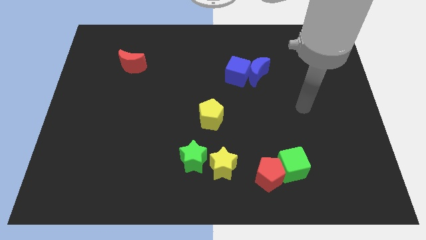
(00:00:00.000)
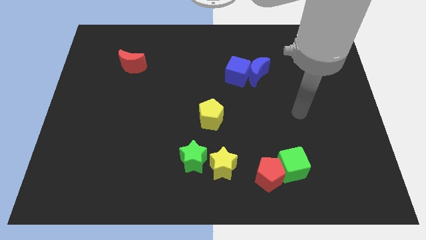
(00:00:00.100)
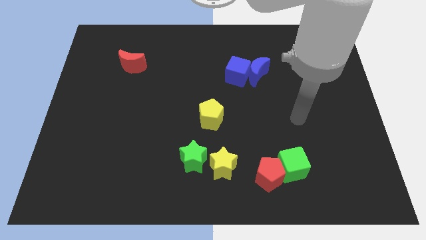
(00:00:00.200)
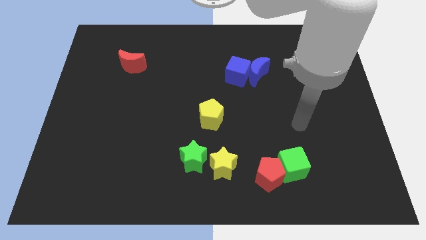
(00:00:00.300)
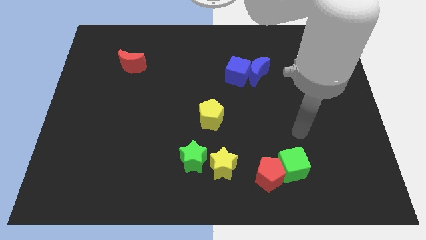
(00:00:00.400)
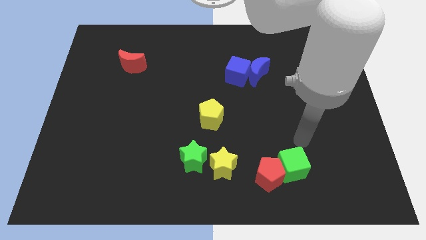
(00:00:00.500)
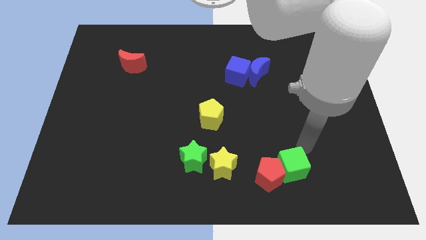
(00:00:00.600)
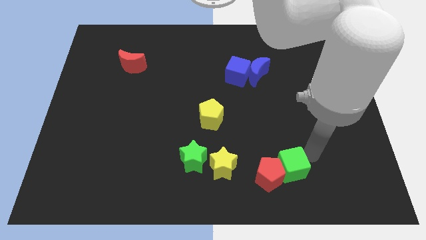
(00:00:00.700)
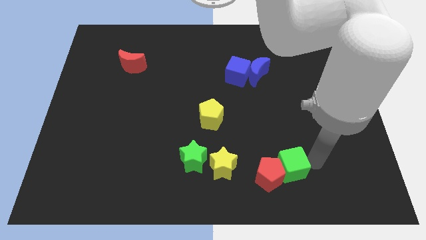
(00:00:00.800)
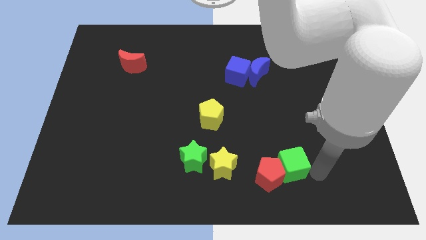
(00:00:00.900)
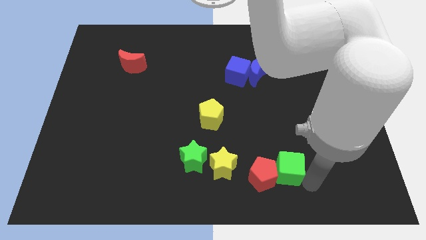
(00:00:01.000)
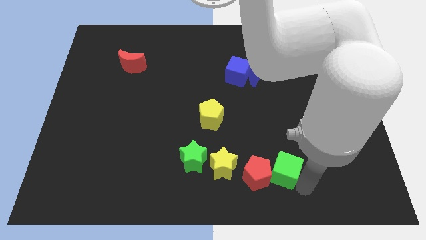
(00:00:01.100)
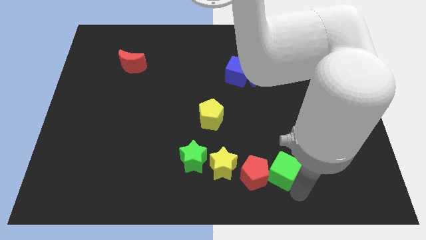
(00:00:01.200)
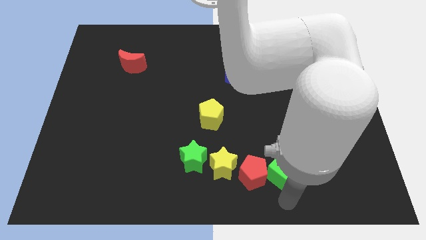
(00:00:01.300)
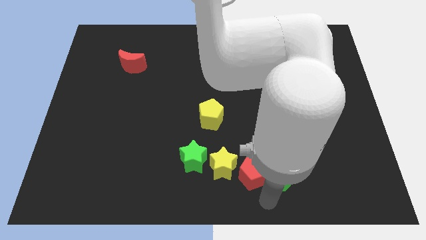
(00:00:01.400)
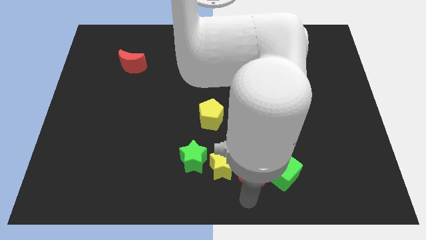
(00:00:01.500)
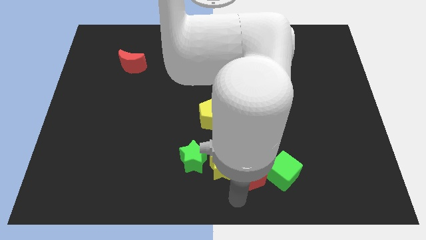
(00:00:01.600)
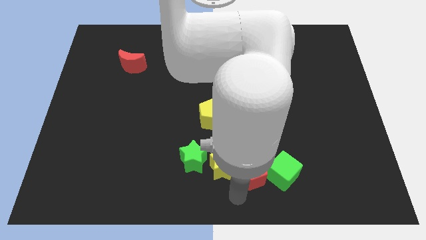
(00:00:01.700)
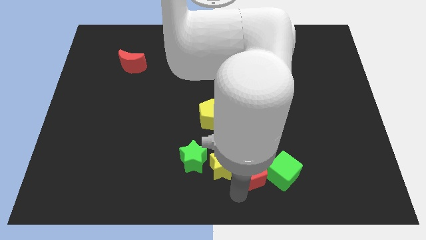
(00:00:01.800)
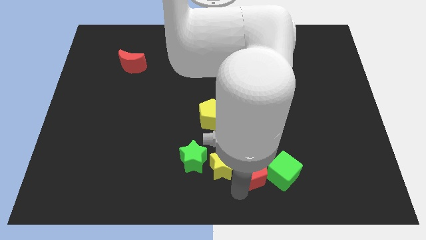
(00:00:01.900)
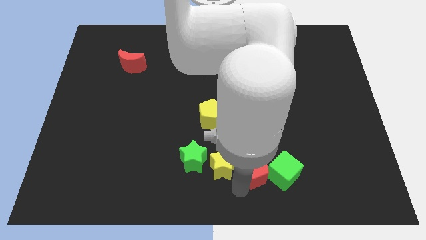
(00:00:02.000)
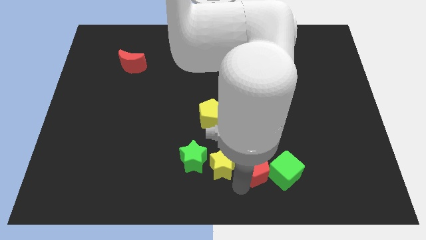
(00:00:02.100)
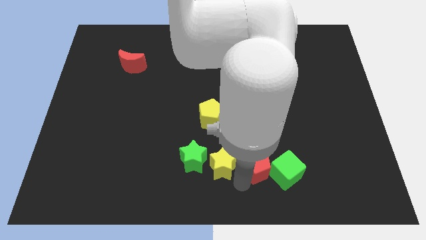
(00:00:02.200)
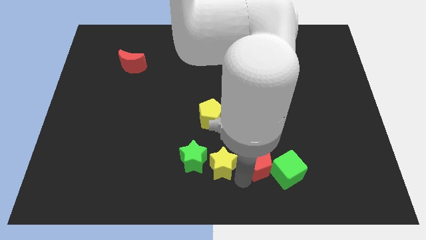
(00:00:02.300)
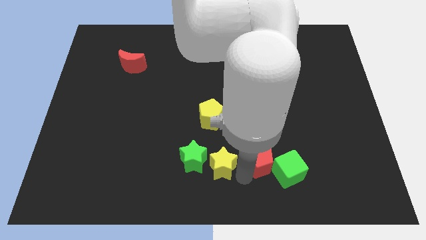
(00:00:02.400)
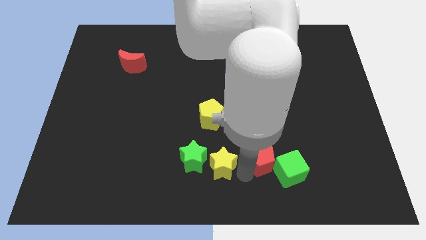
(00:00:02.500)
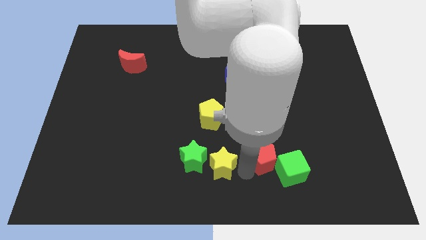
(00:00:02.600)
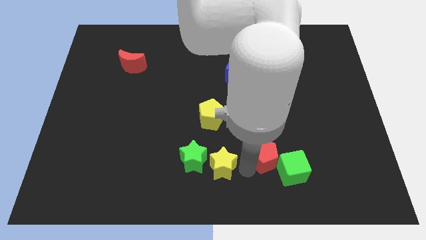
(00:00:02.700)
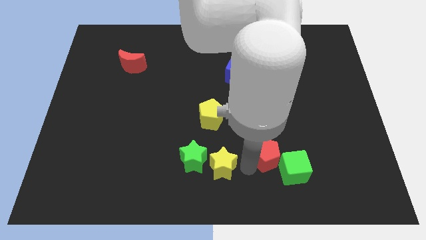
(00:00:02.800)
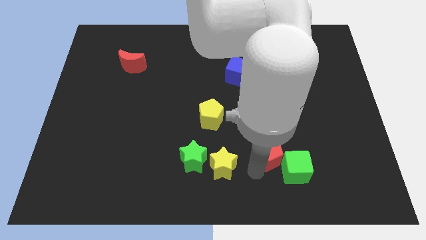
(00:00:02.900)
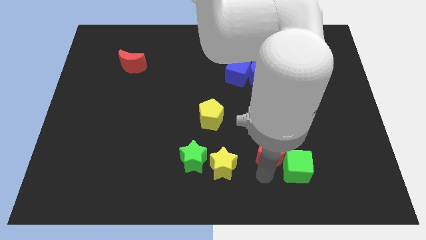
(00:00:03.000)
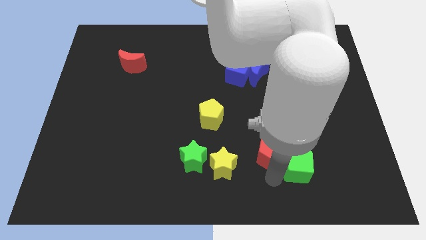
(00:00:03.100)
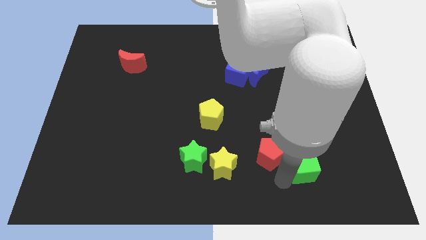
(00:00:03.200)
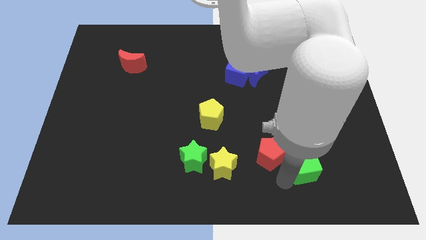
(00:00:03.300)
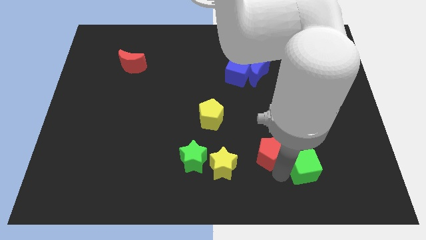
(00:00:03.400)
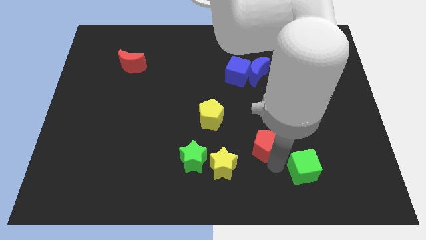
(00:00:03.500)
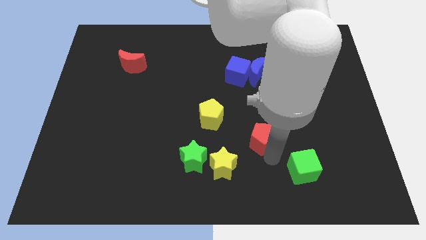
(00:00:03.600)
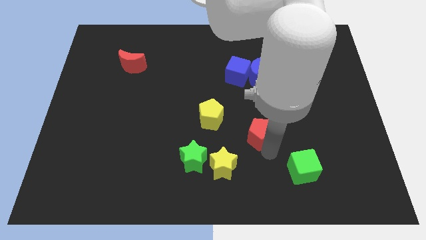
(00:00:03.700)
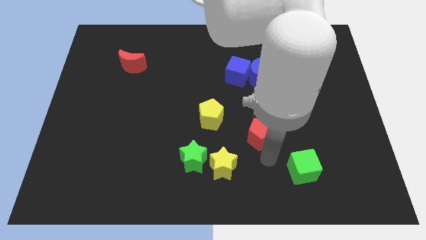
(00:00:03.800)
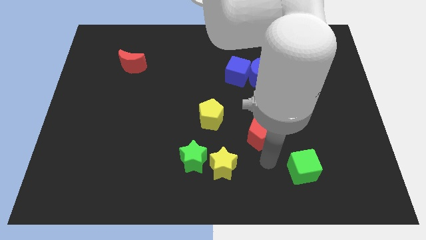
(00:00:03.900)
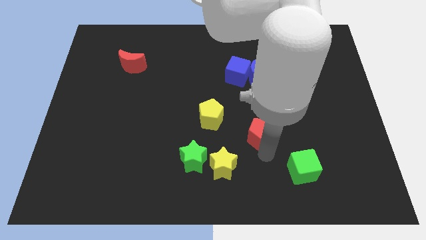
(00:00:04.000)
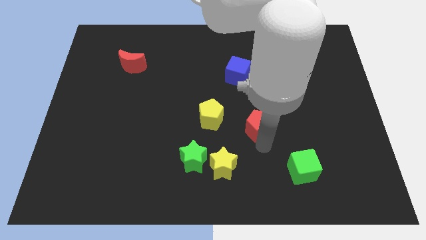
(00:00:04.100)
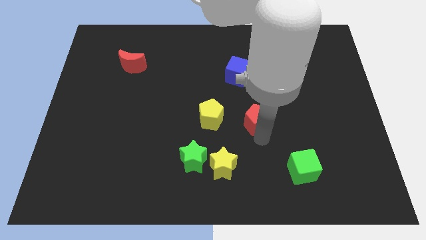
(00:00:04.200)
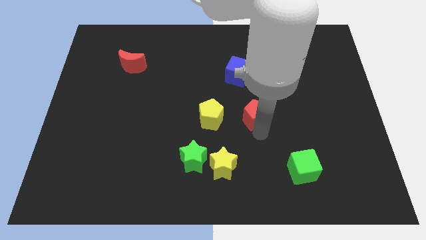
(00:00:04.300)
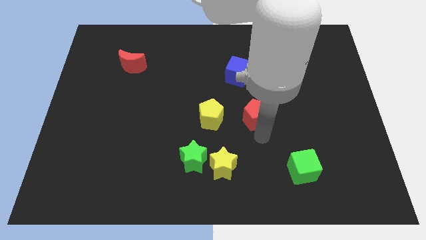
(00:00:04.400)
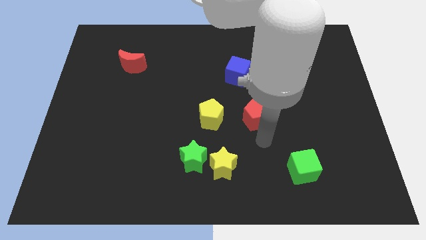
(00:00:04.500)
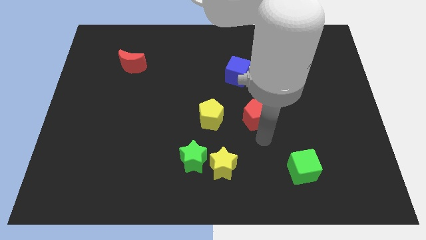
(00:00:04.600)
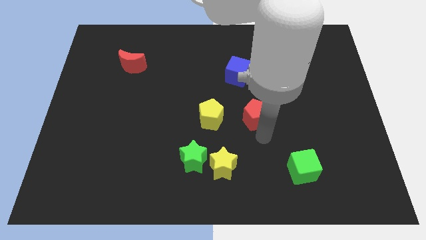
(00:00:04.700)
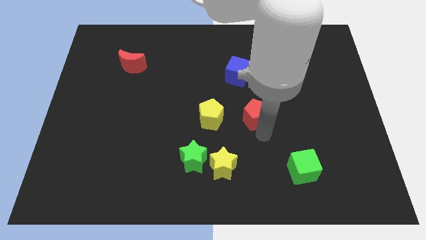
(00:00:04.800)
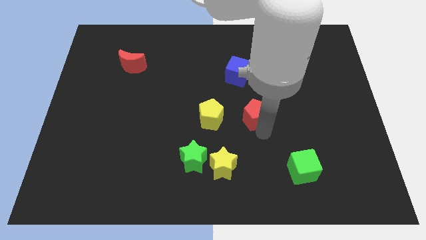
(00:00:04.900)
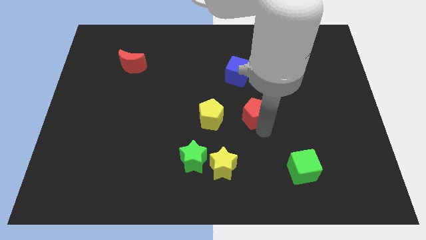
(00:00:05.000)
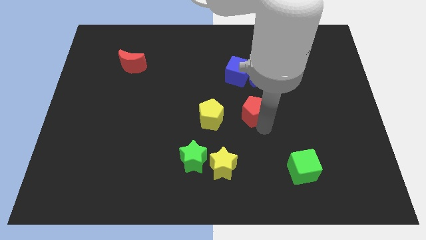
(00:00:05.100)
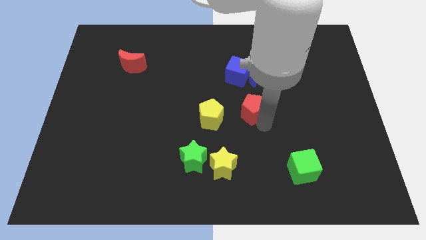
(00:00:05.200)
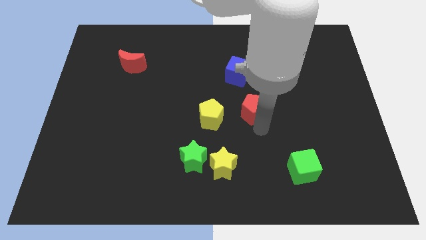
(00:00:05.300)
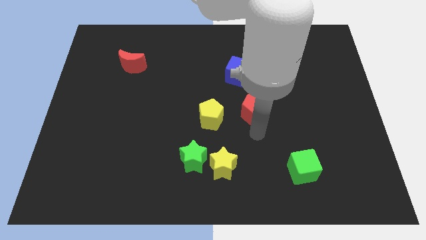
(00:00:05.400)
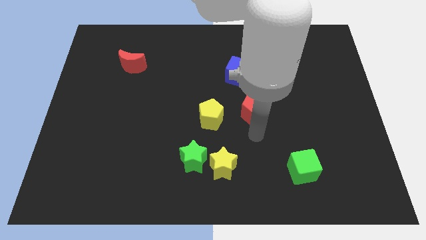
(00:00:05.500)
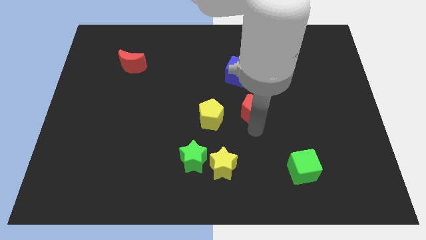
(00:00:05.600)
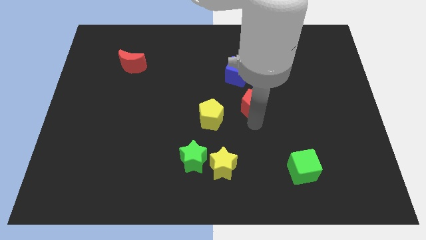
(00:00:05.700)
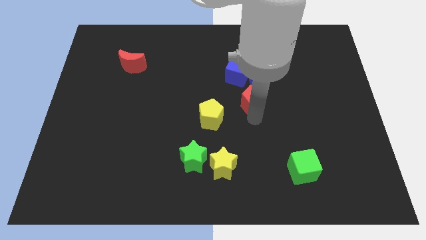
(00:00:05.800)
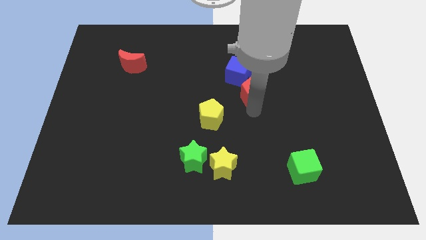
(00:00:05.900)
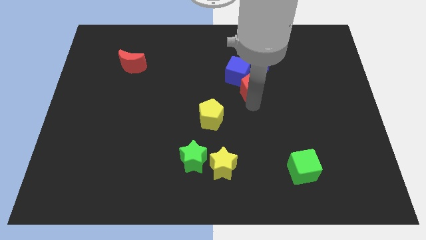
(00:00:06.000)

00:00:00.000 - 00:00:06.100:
put the red pentagon towards the blue moon

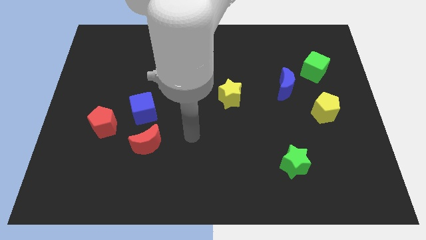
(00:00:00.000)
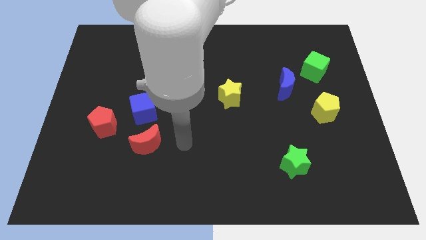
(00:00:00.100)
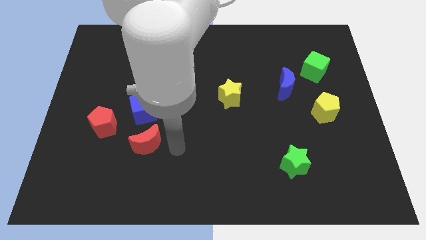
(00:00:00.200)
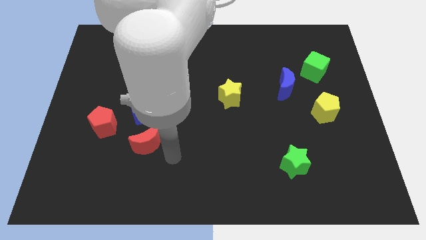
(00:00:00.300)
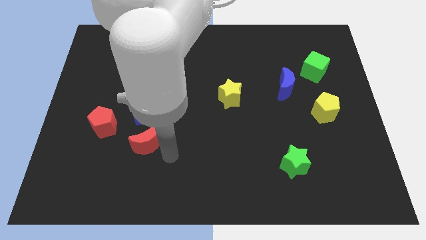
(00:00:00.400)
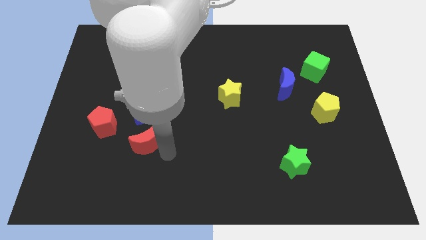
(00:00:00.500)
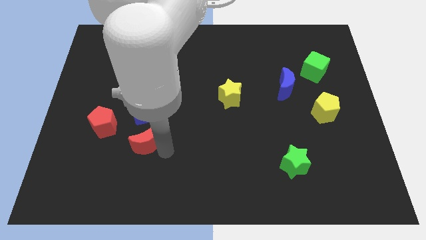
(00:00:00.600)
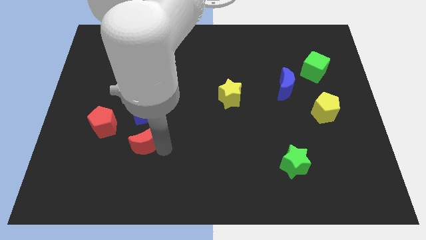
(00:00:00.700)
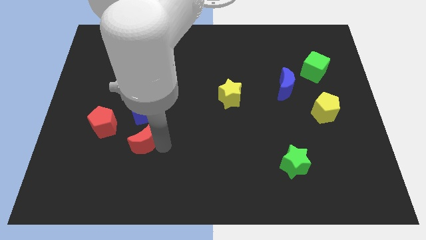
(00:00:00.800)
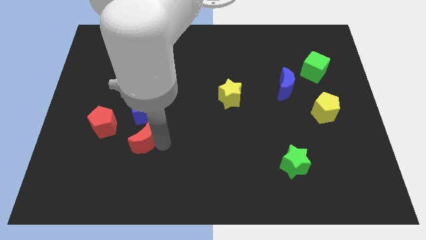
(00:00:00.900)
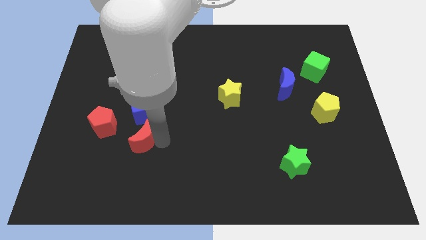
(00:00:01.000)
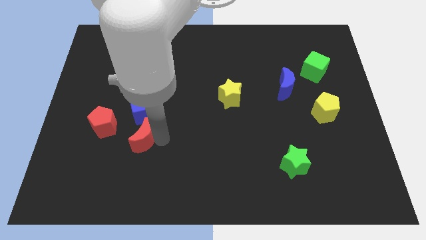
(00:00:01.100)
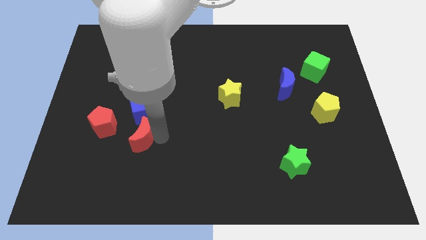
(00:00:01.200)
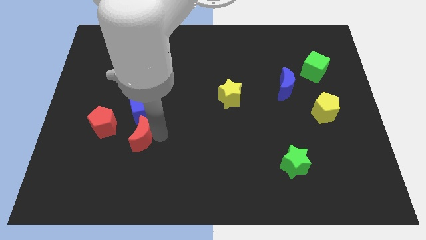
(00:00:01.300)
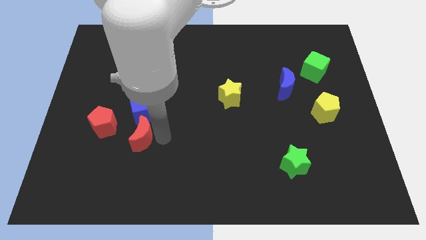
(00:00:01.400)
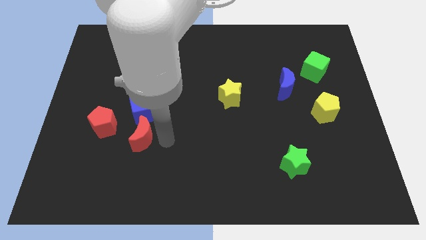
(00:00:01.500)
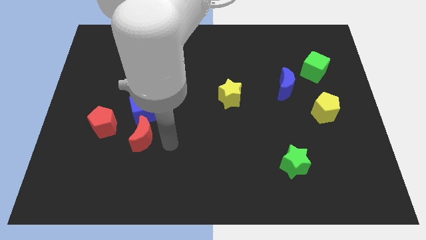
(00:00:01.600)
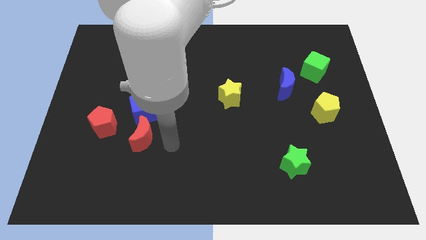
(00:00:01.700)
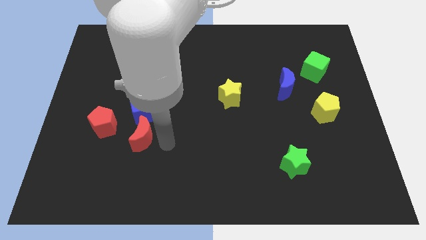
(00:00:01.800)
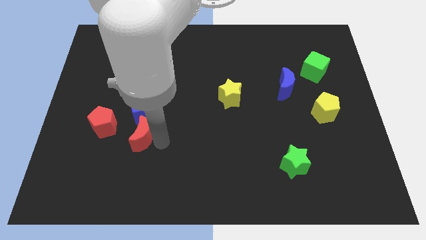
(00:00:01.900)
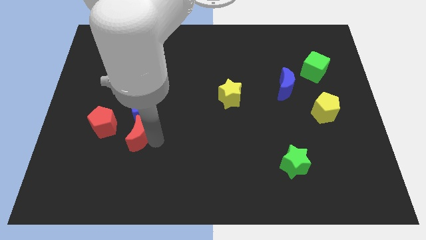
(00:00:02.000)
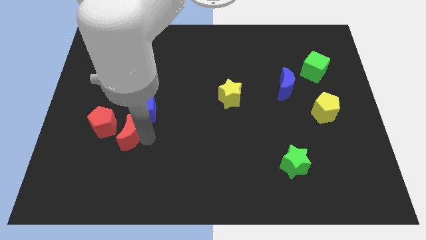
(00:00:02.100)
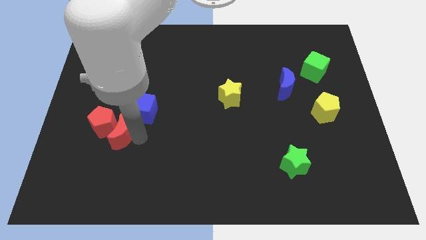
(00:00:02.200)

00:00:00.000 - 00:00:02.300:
push the red moon close to the red pentagon
